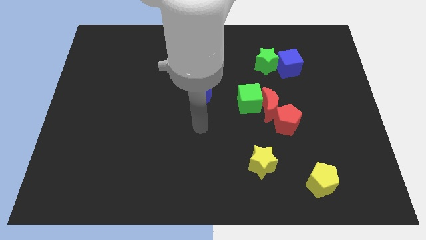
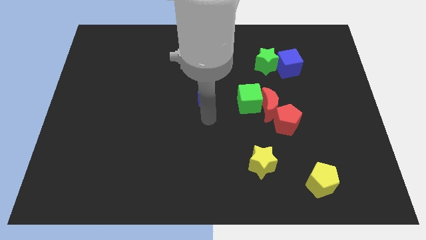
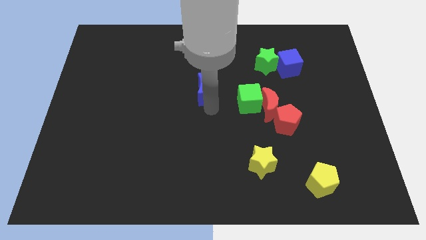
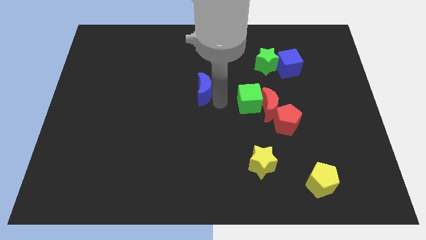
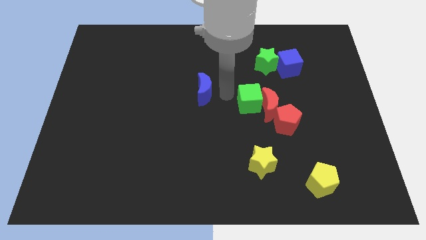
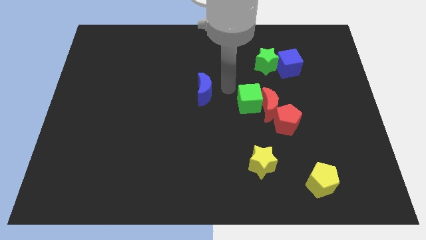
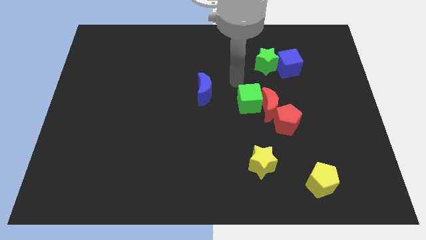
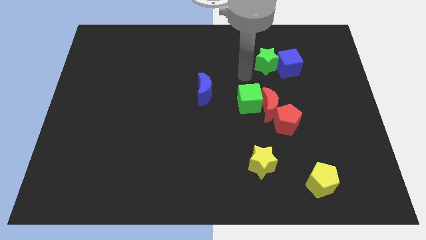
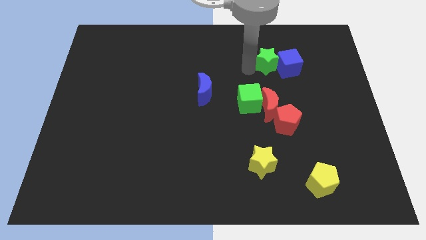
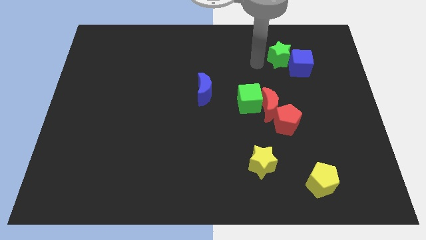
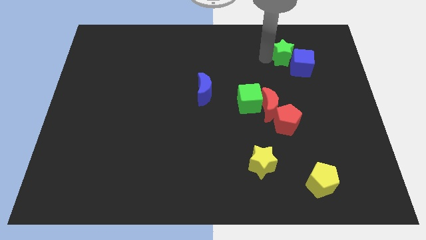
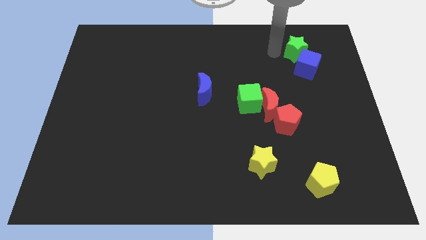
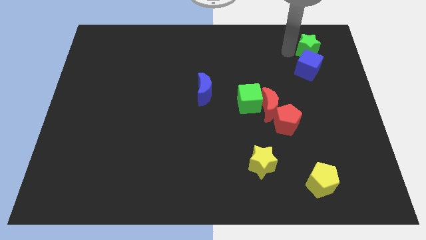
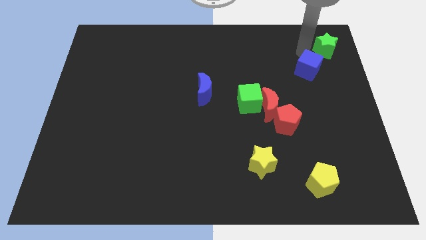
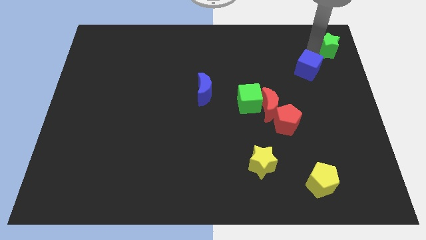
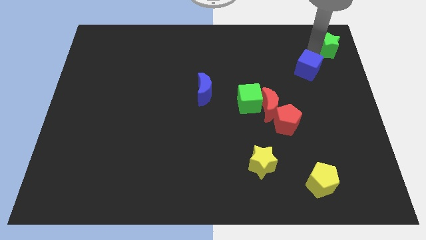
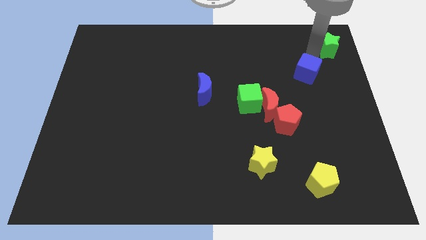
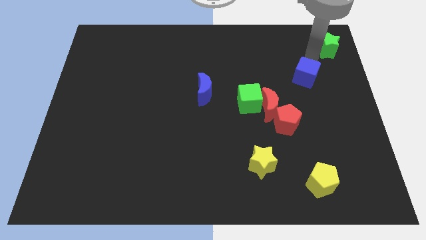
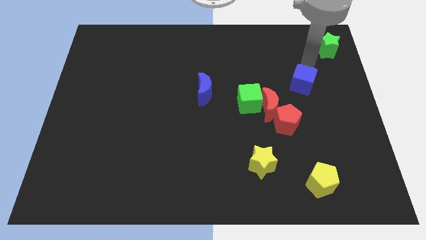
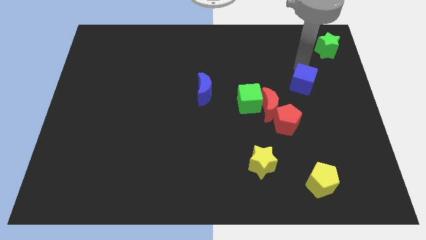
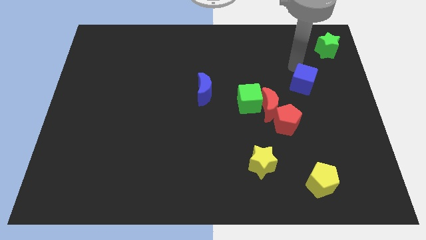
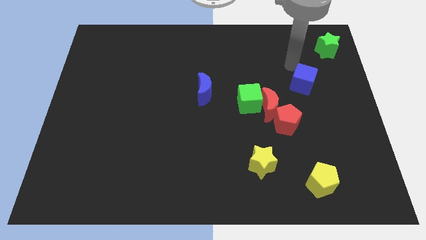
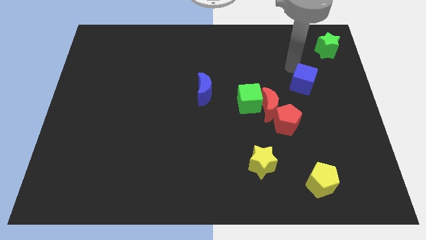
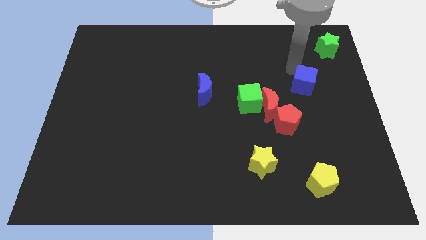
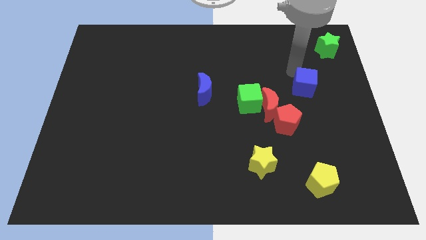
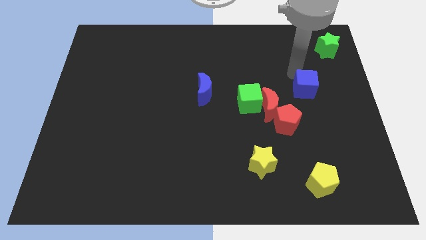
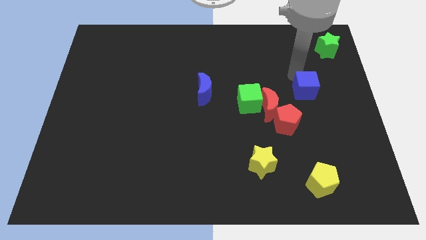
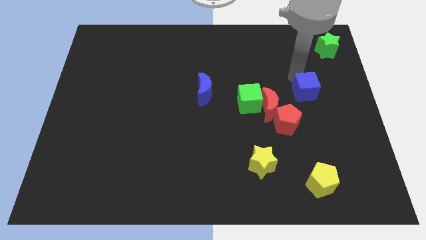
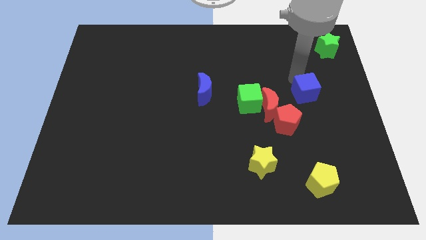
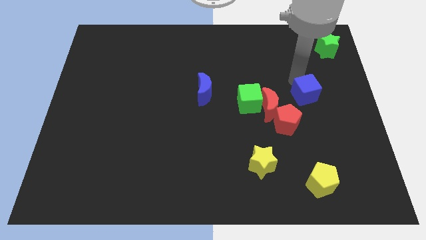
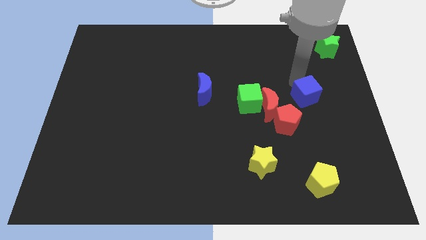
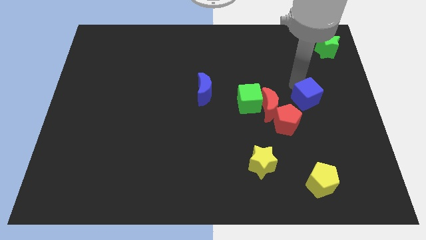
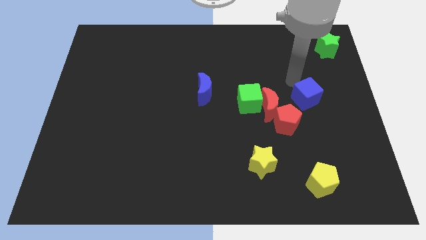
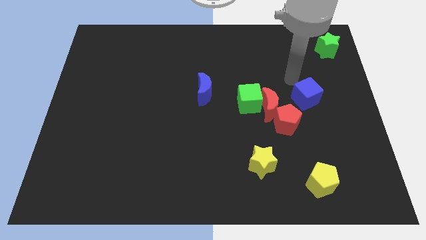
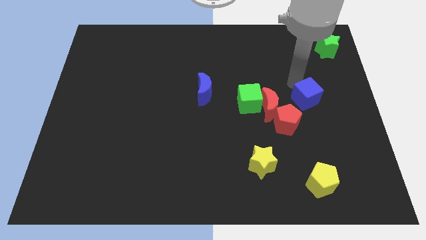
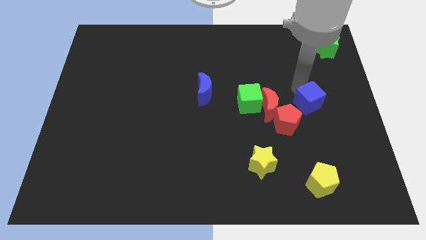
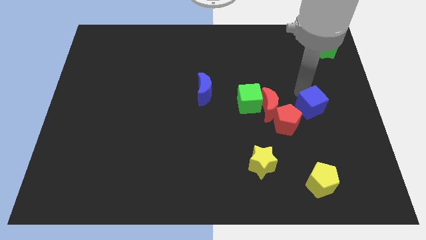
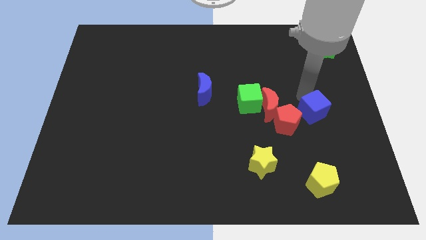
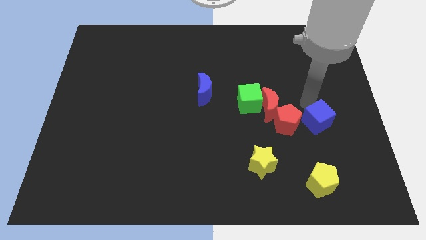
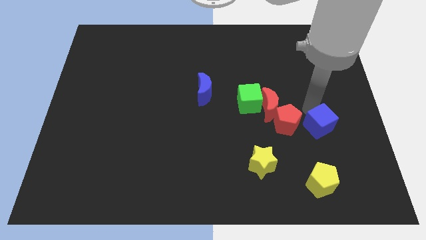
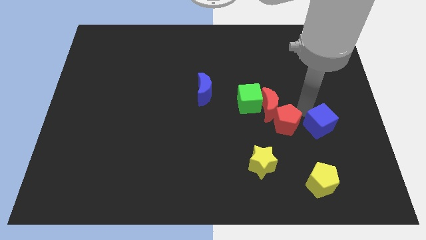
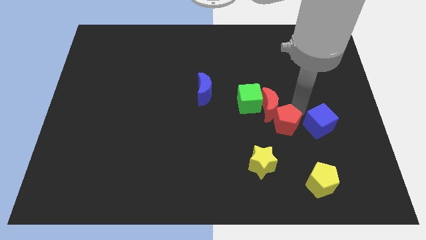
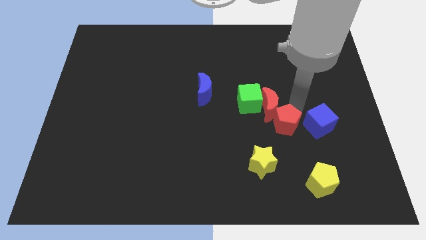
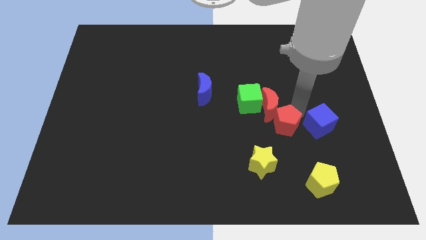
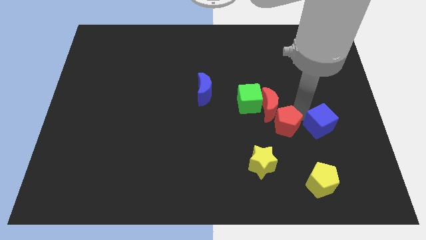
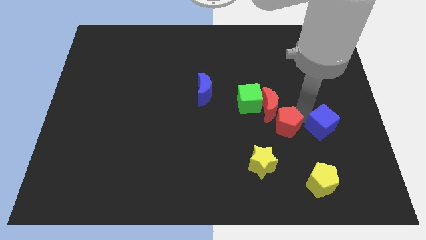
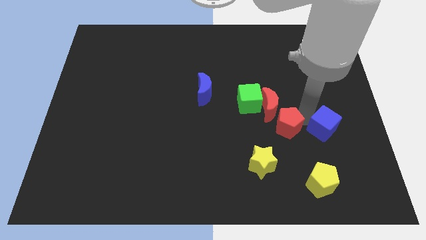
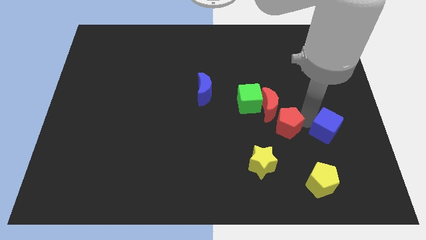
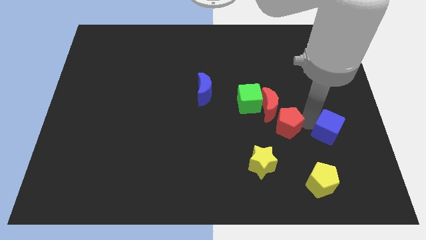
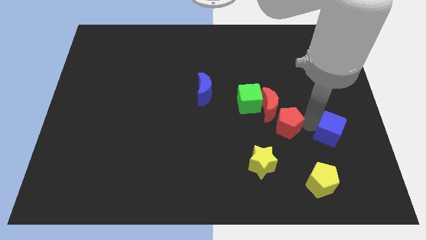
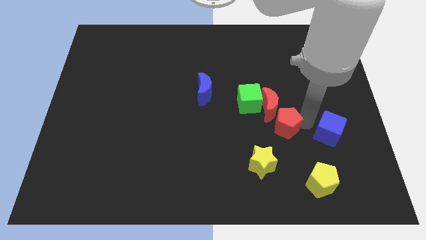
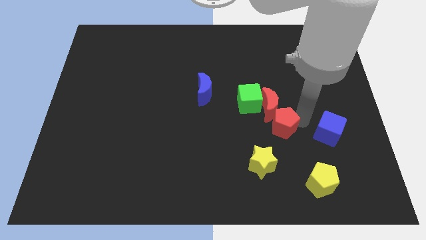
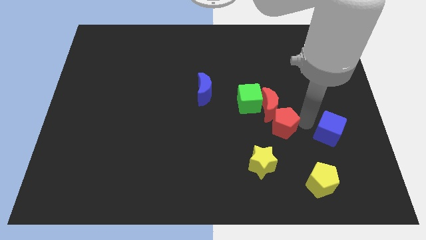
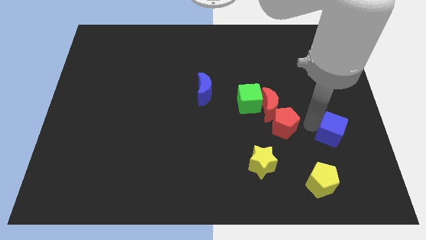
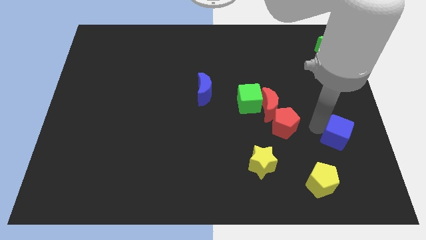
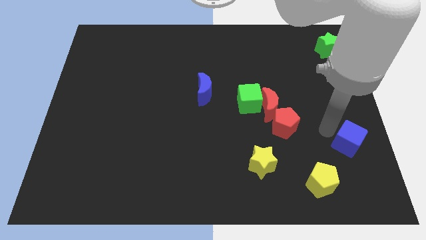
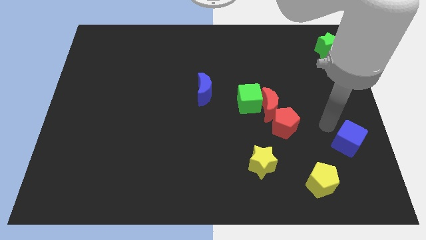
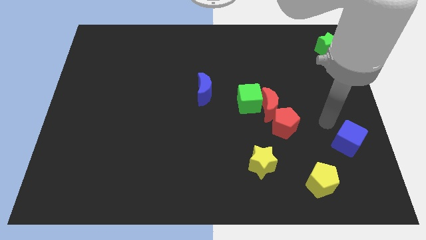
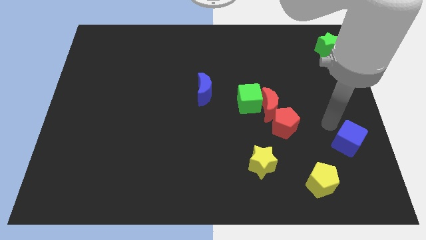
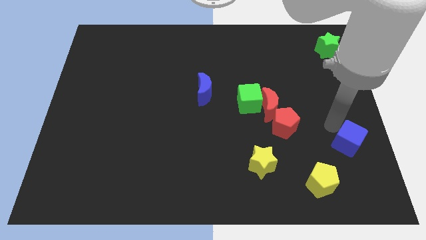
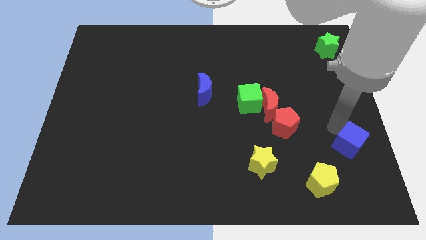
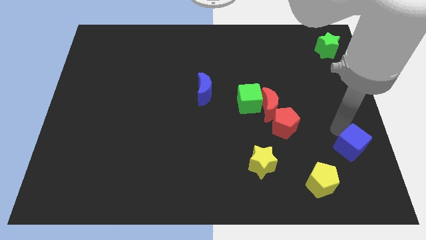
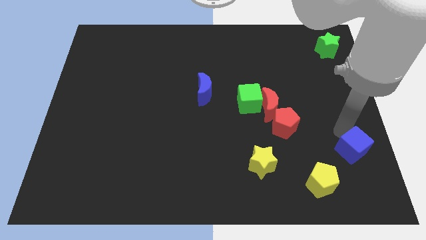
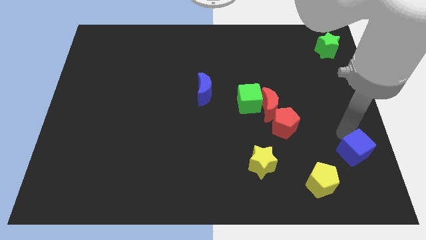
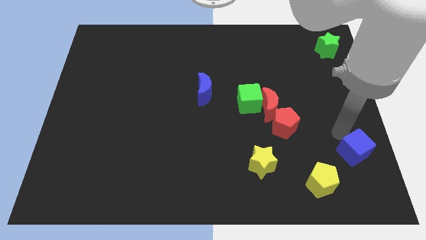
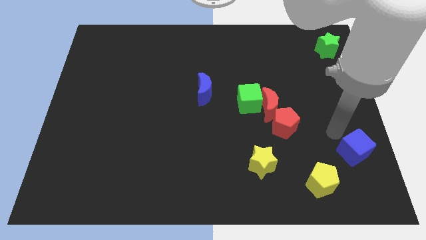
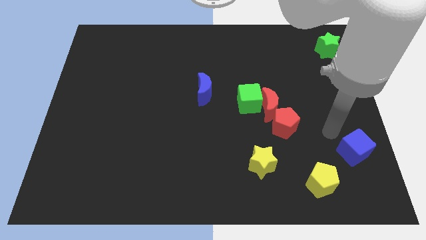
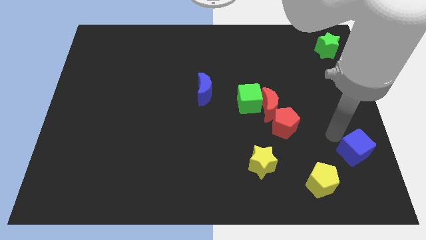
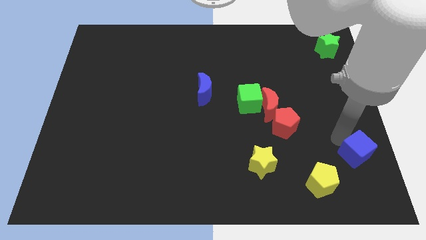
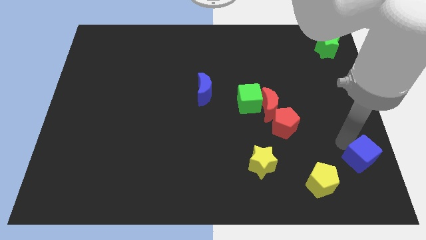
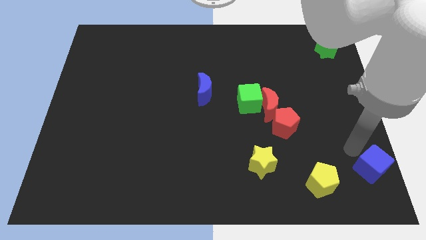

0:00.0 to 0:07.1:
move the blue cube to the bottom right of the board
